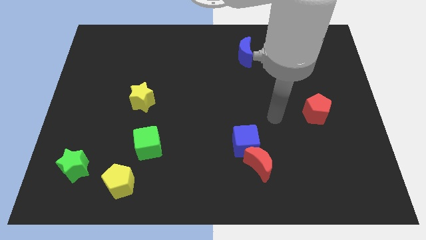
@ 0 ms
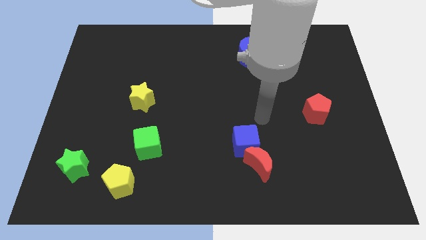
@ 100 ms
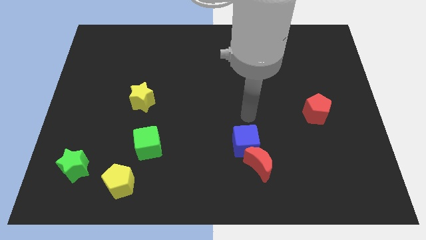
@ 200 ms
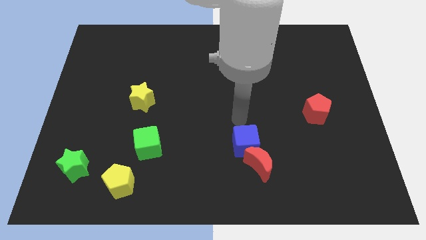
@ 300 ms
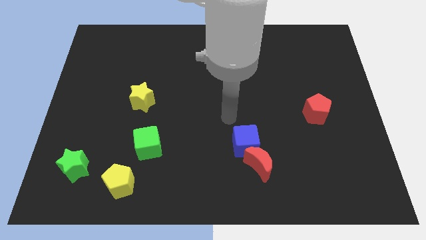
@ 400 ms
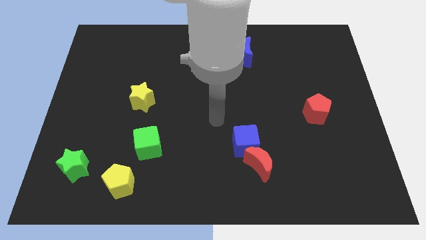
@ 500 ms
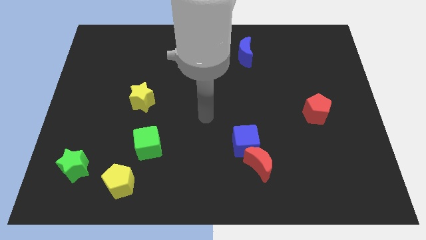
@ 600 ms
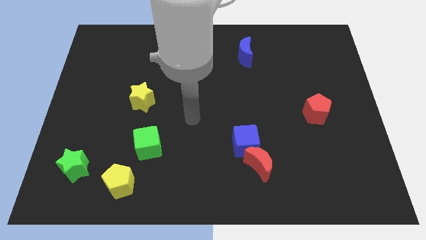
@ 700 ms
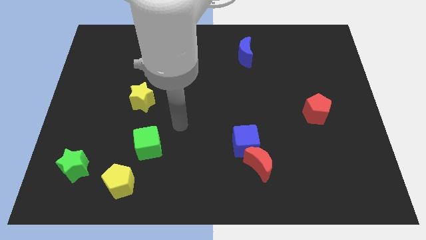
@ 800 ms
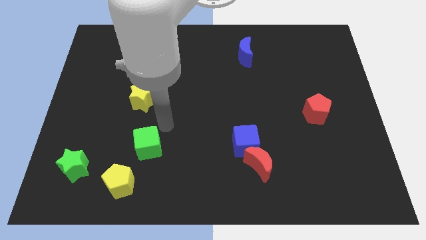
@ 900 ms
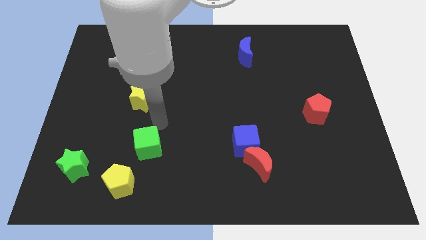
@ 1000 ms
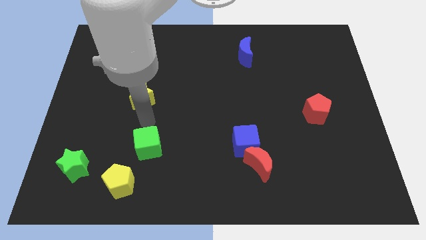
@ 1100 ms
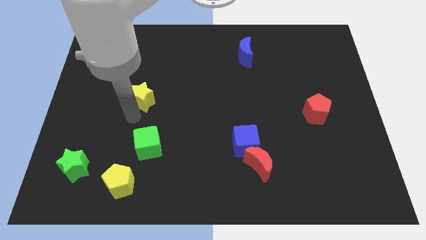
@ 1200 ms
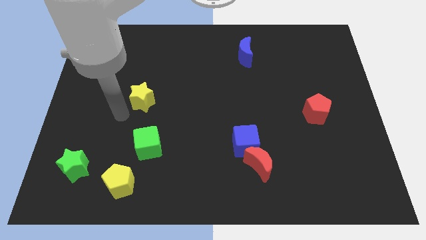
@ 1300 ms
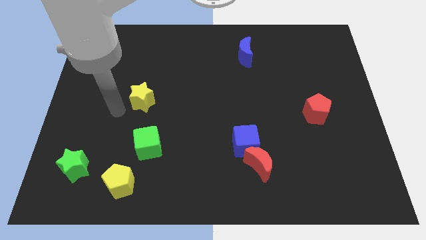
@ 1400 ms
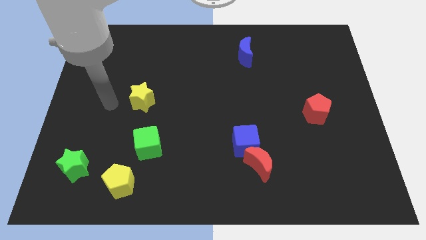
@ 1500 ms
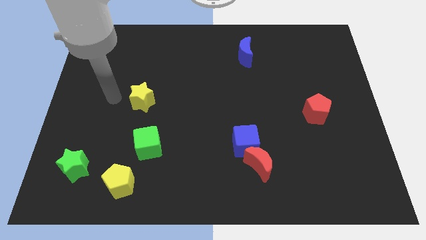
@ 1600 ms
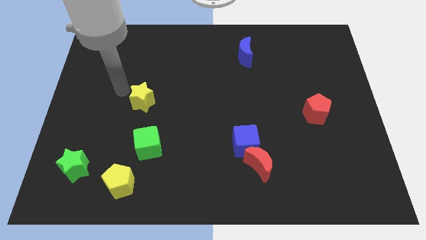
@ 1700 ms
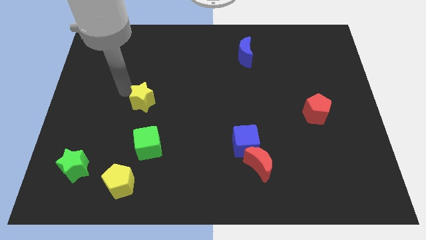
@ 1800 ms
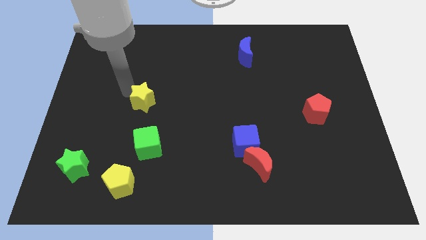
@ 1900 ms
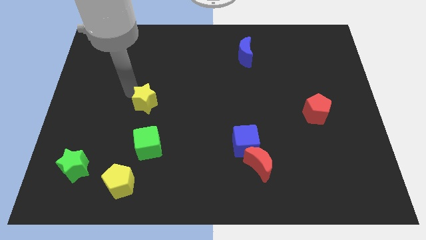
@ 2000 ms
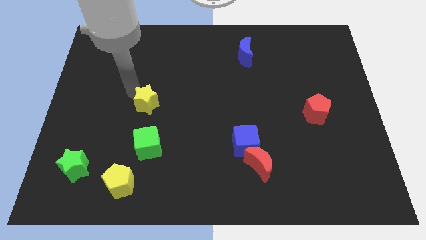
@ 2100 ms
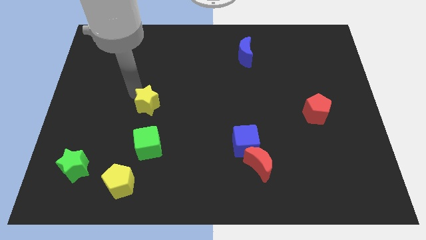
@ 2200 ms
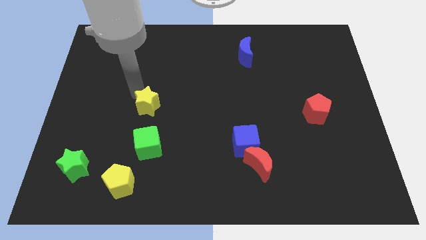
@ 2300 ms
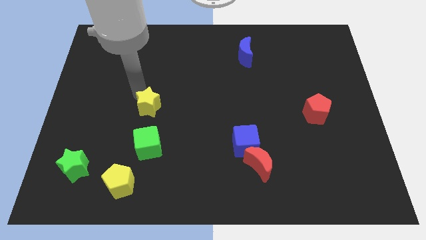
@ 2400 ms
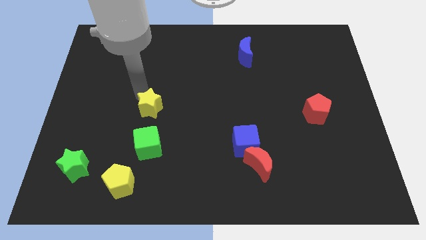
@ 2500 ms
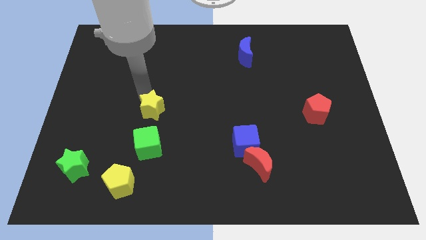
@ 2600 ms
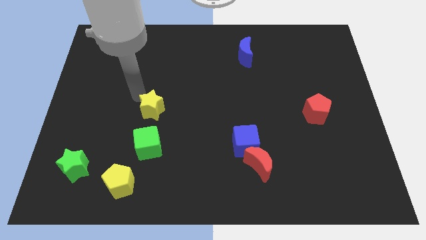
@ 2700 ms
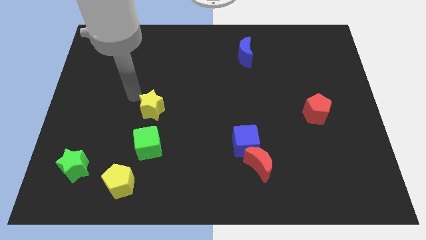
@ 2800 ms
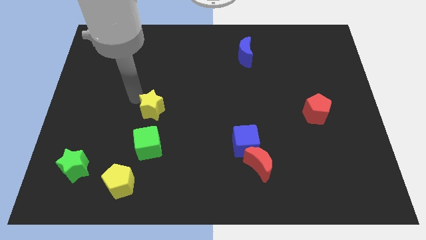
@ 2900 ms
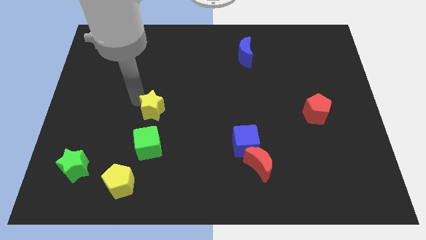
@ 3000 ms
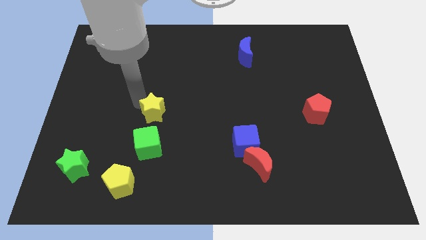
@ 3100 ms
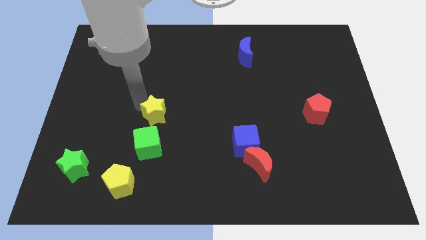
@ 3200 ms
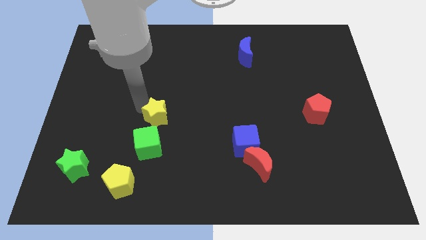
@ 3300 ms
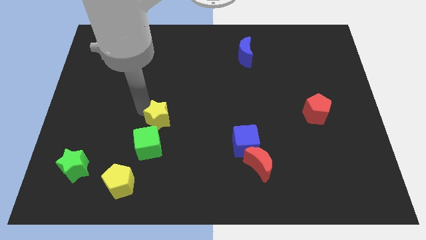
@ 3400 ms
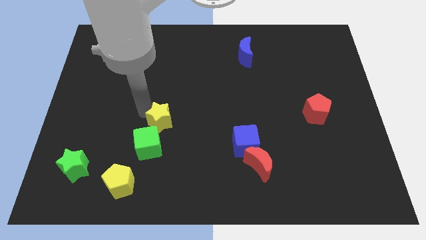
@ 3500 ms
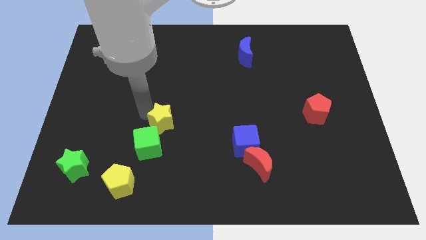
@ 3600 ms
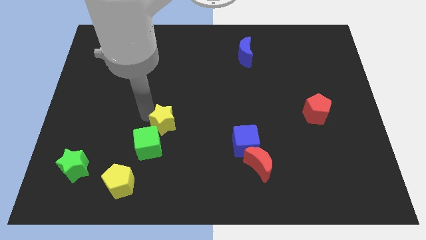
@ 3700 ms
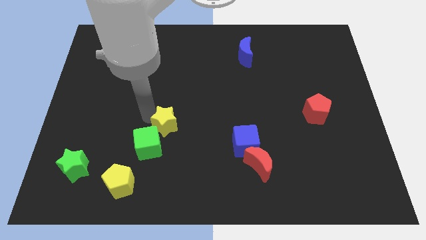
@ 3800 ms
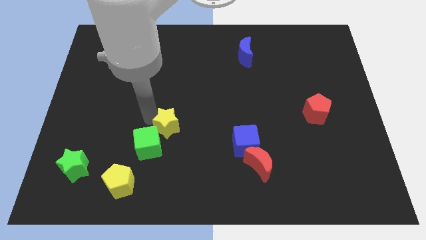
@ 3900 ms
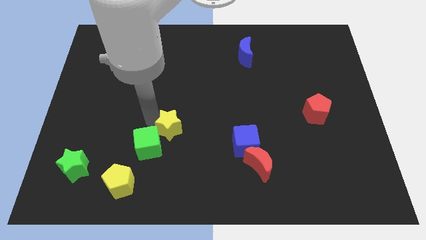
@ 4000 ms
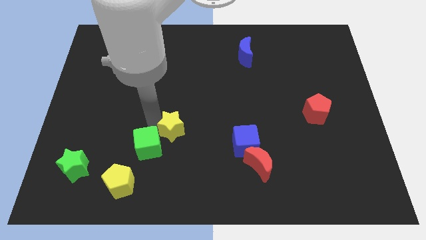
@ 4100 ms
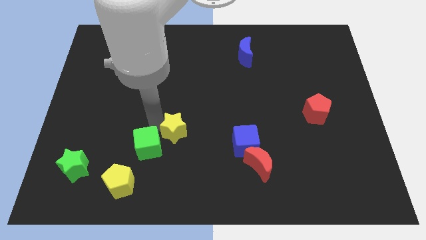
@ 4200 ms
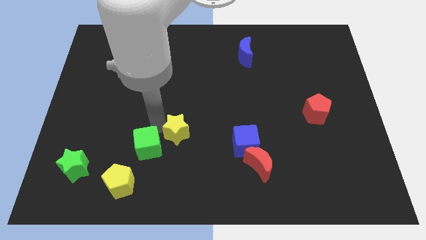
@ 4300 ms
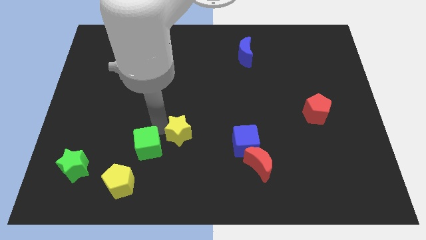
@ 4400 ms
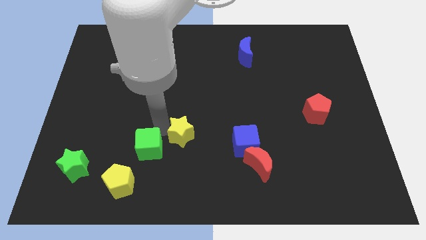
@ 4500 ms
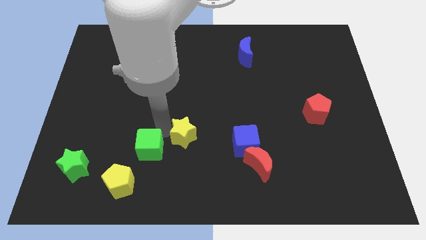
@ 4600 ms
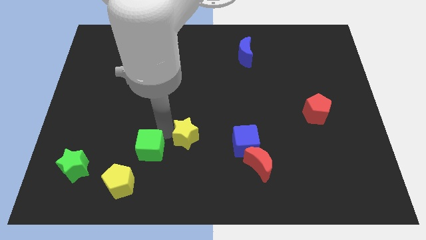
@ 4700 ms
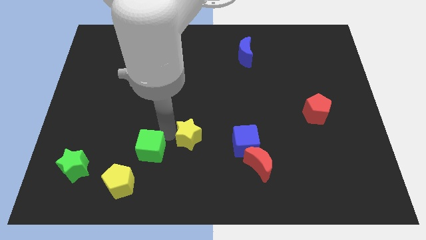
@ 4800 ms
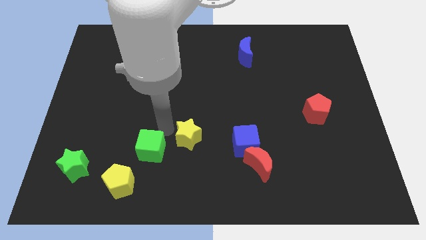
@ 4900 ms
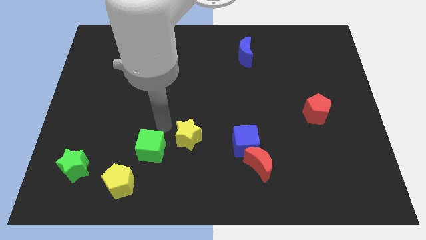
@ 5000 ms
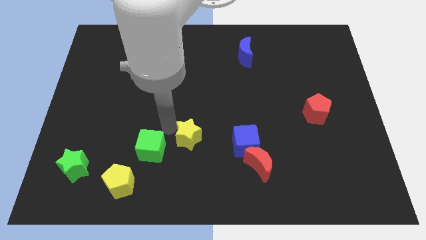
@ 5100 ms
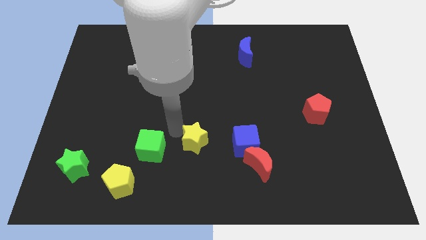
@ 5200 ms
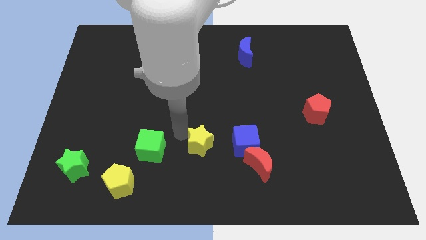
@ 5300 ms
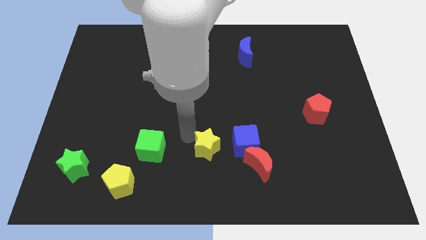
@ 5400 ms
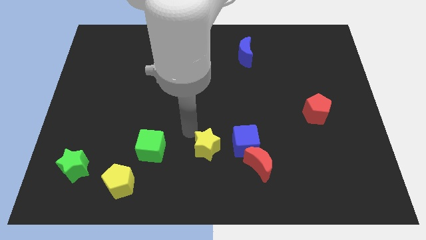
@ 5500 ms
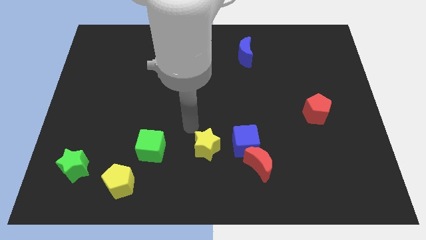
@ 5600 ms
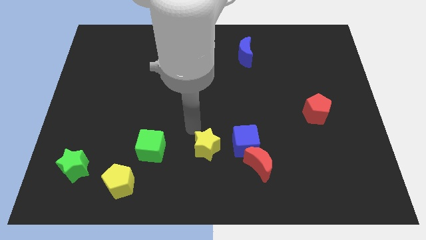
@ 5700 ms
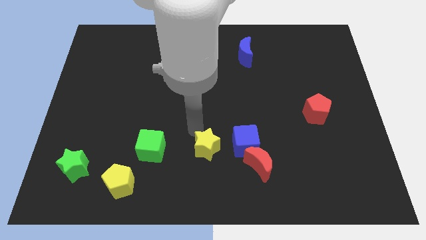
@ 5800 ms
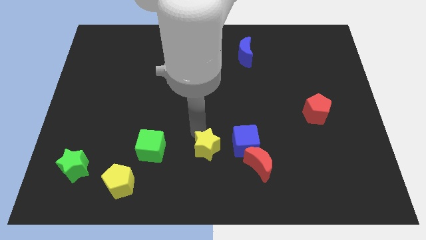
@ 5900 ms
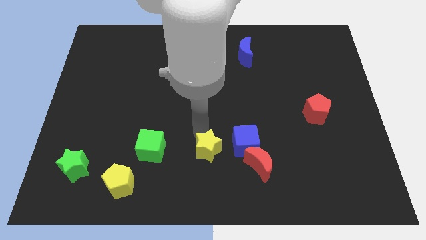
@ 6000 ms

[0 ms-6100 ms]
slide the yellow star to the bottom left of the blue cube

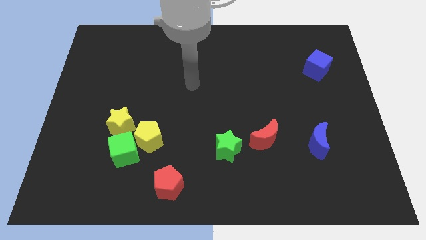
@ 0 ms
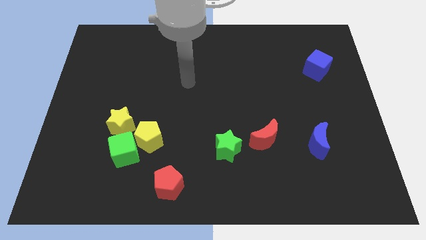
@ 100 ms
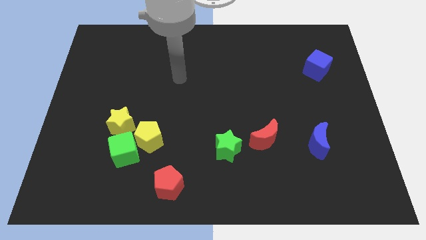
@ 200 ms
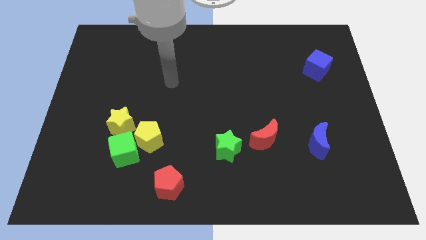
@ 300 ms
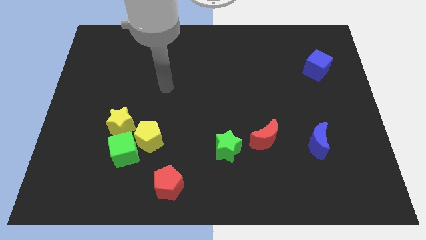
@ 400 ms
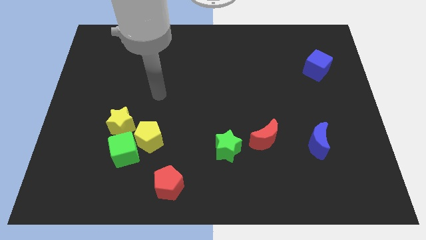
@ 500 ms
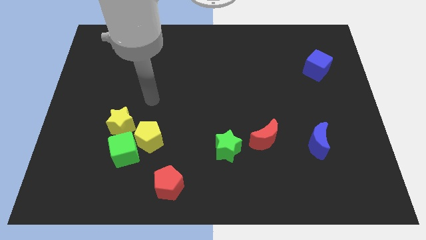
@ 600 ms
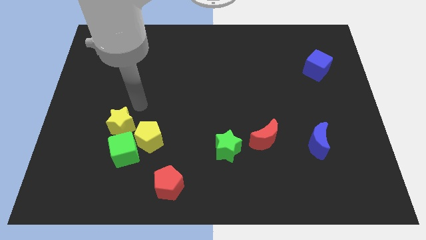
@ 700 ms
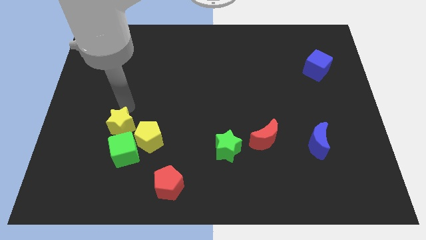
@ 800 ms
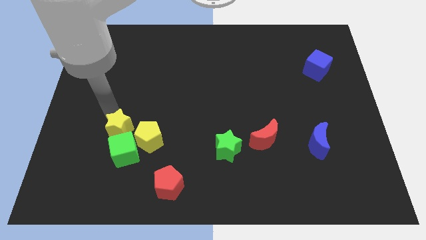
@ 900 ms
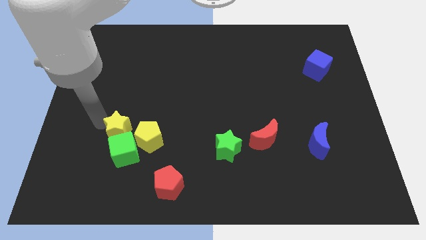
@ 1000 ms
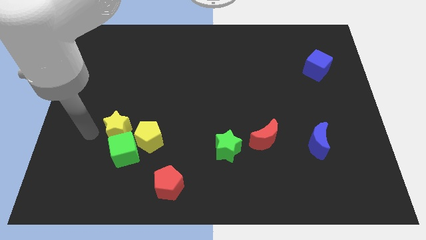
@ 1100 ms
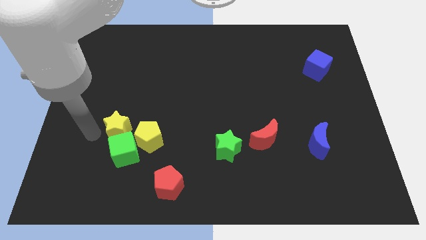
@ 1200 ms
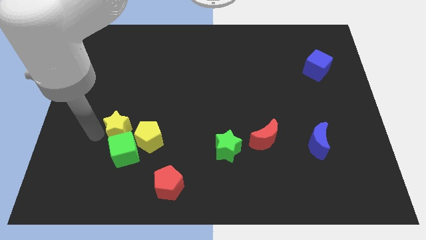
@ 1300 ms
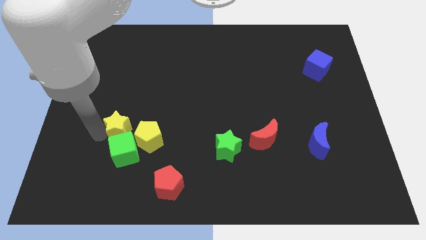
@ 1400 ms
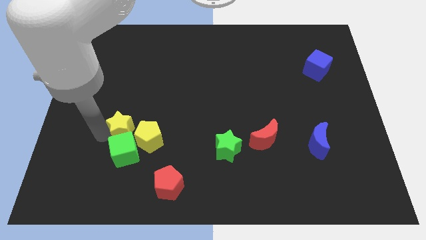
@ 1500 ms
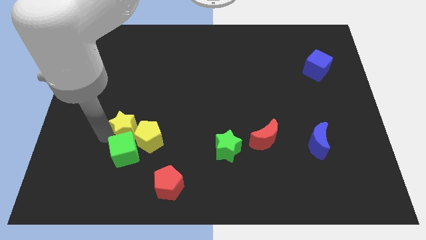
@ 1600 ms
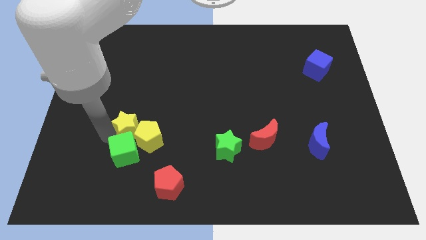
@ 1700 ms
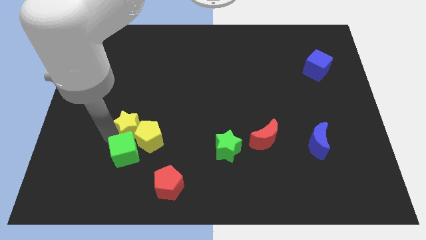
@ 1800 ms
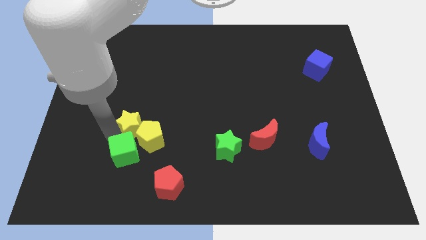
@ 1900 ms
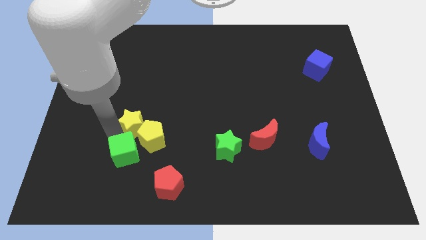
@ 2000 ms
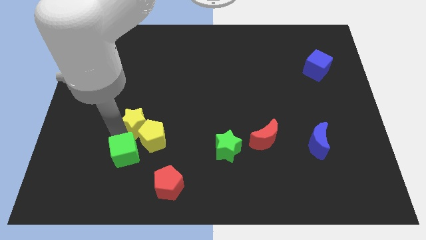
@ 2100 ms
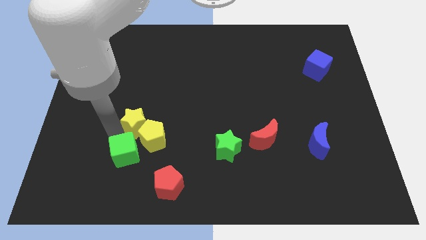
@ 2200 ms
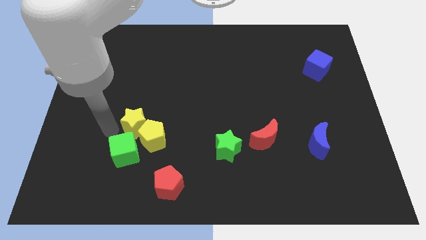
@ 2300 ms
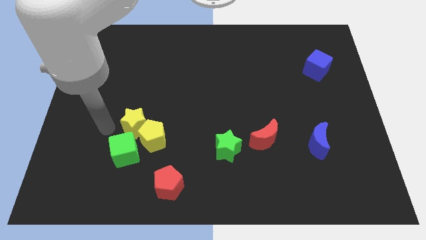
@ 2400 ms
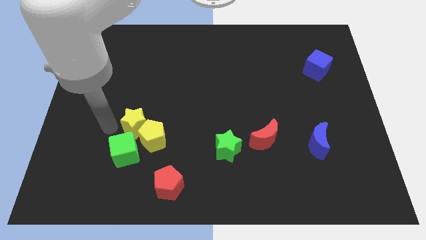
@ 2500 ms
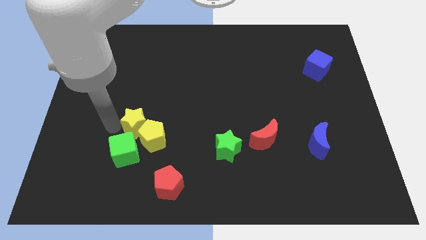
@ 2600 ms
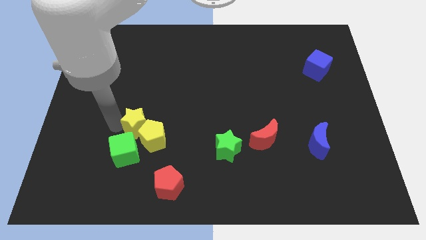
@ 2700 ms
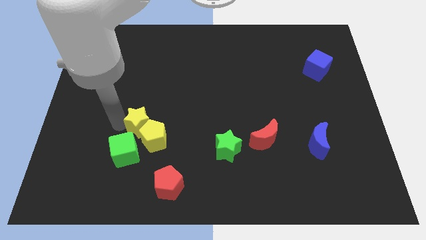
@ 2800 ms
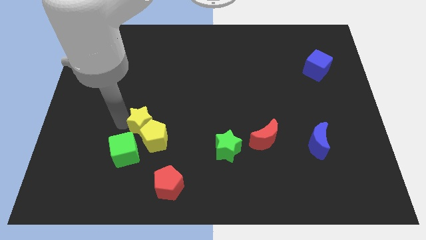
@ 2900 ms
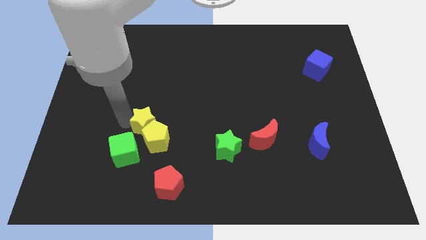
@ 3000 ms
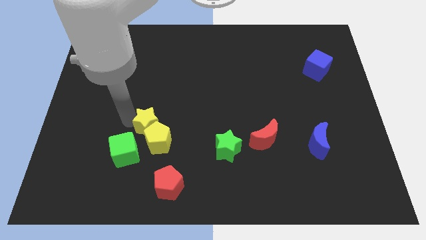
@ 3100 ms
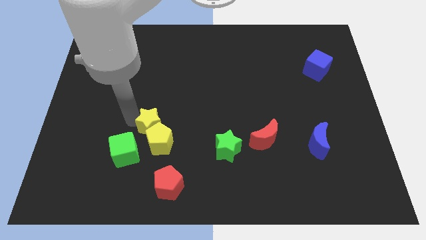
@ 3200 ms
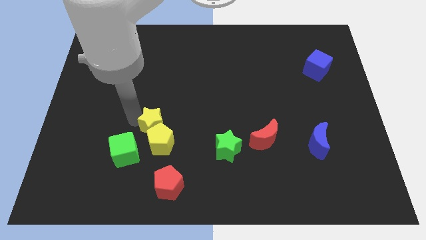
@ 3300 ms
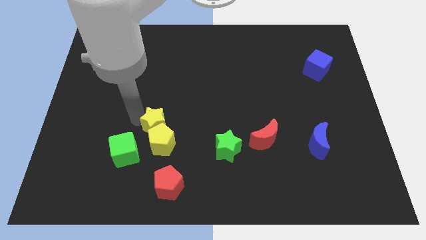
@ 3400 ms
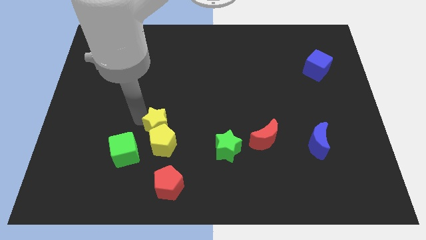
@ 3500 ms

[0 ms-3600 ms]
put the yellow star to the top of the red pentagon
